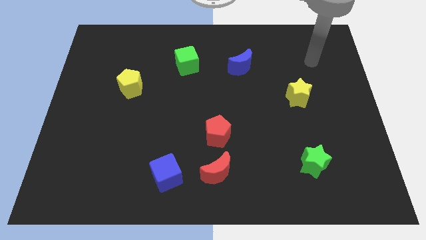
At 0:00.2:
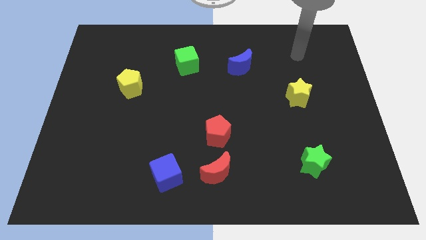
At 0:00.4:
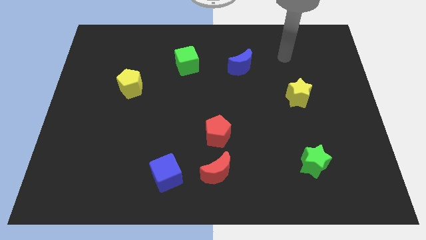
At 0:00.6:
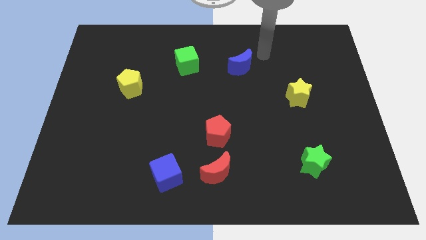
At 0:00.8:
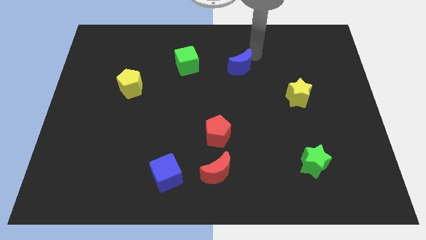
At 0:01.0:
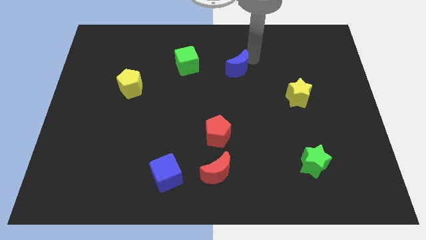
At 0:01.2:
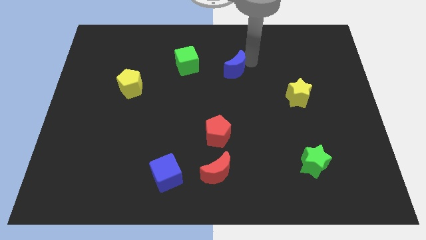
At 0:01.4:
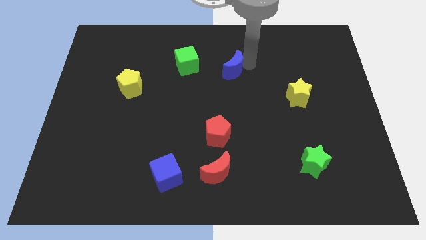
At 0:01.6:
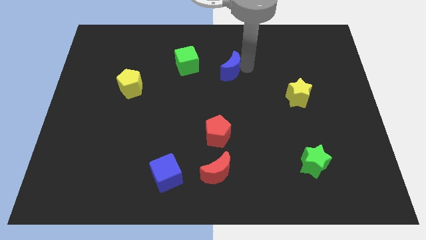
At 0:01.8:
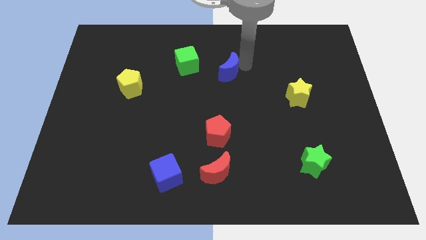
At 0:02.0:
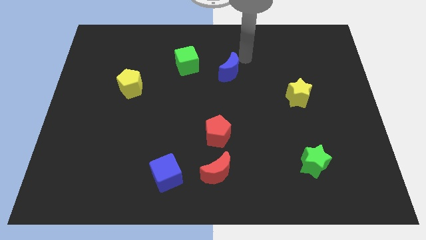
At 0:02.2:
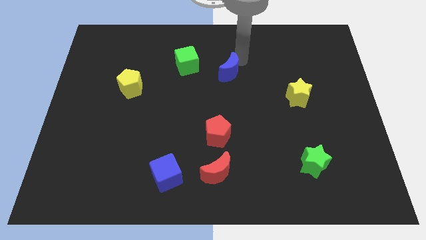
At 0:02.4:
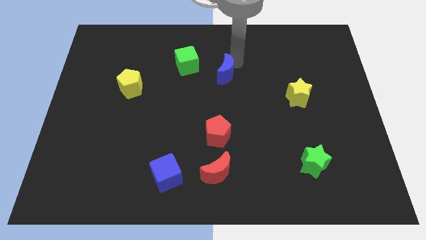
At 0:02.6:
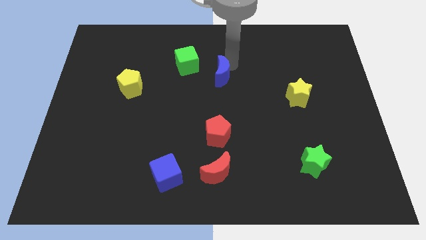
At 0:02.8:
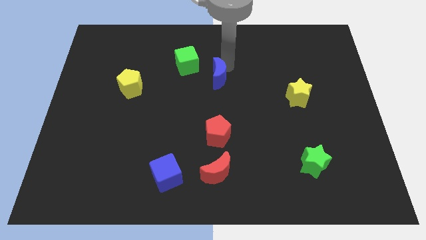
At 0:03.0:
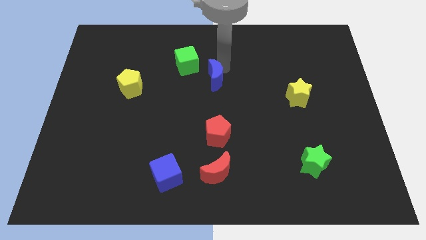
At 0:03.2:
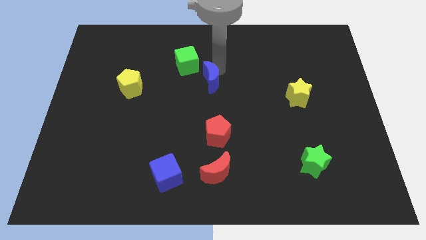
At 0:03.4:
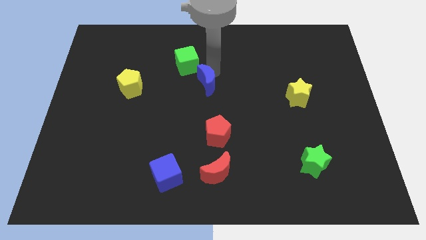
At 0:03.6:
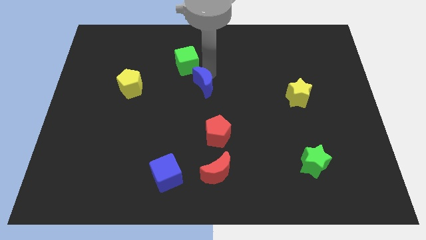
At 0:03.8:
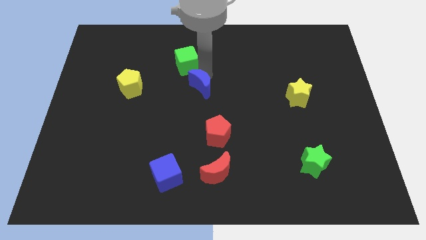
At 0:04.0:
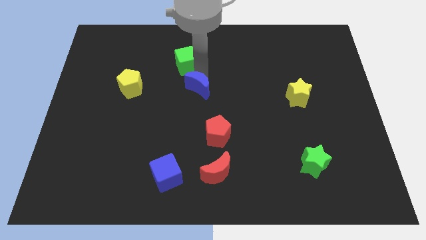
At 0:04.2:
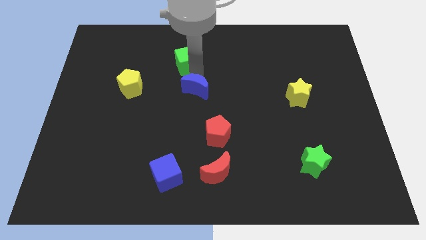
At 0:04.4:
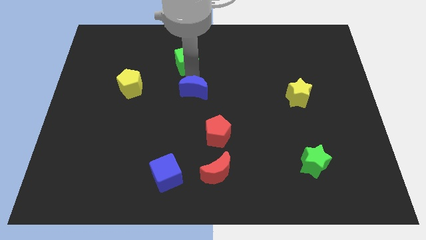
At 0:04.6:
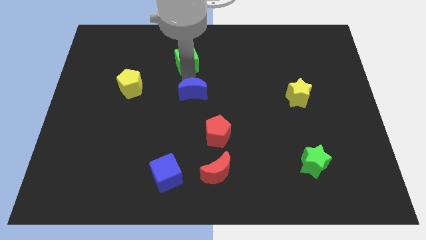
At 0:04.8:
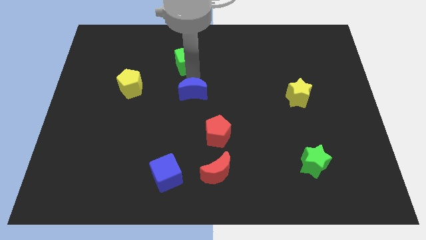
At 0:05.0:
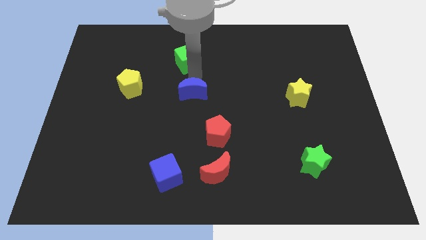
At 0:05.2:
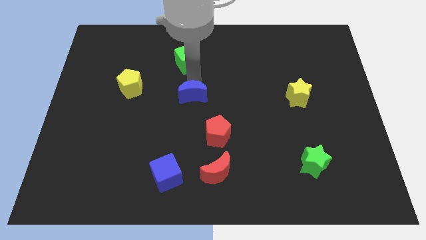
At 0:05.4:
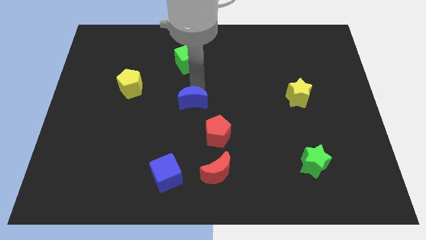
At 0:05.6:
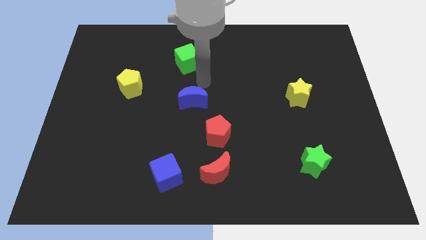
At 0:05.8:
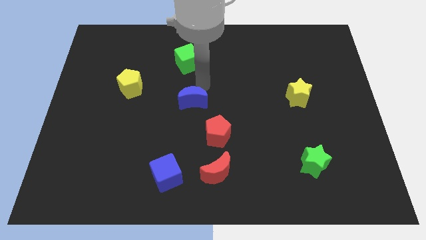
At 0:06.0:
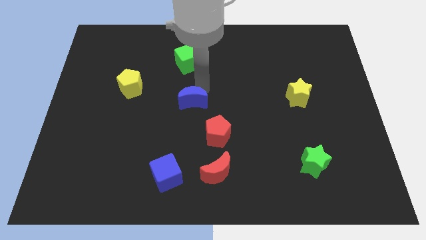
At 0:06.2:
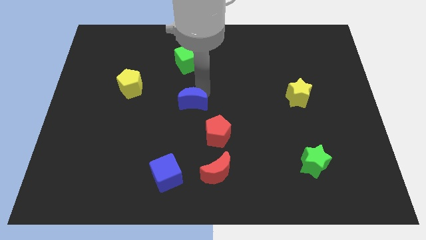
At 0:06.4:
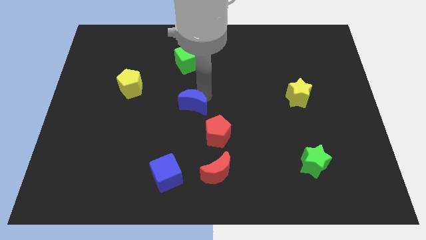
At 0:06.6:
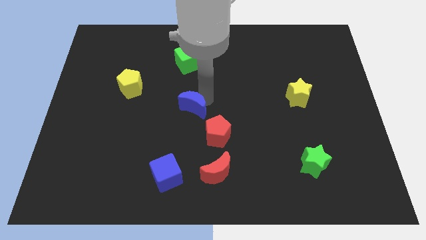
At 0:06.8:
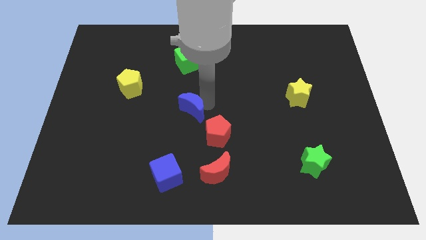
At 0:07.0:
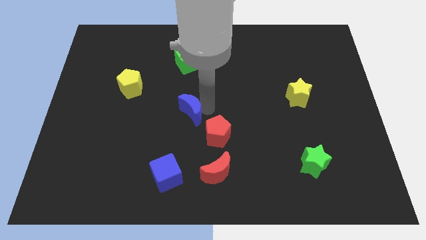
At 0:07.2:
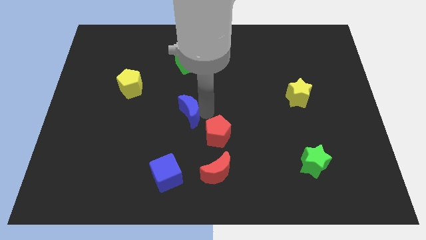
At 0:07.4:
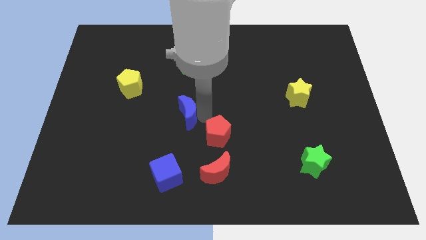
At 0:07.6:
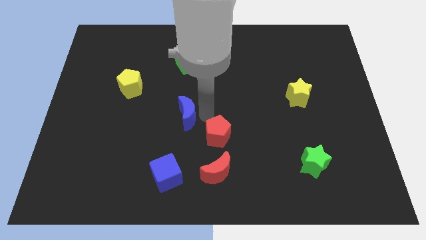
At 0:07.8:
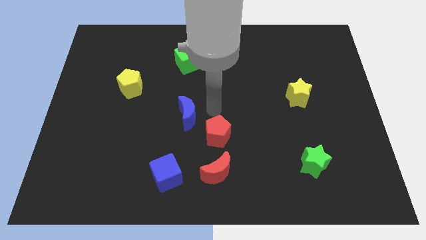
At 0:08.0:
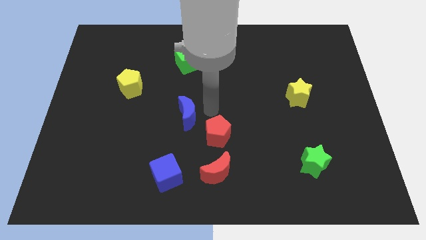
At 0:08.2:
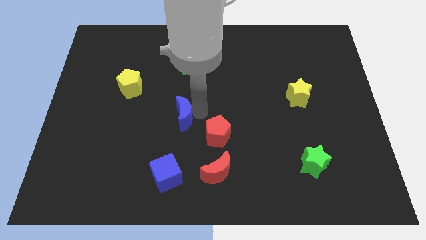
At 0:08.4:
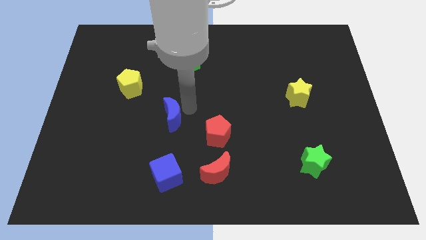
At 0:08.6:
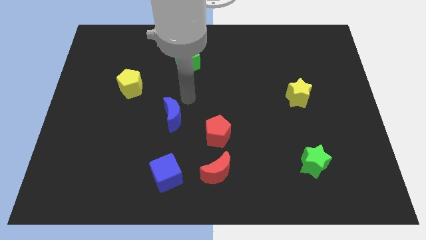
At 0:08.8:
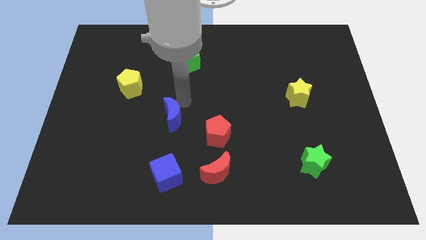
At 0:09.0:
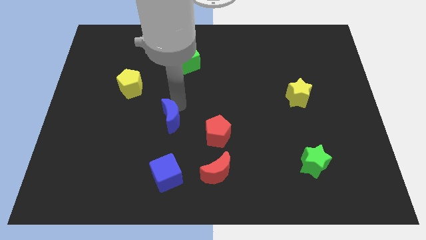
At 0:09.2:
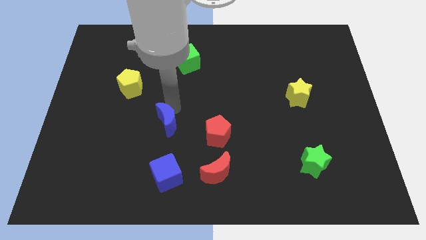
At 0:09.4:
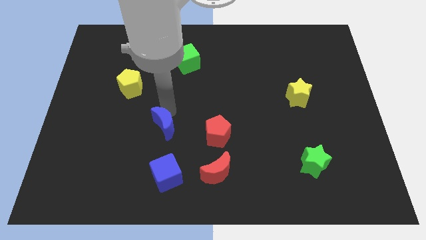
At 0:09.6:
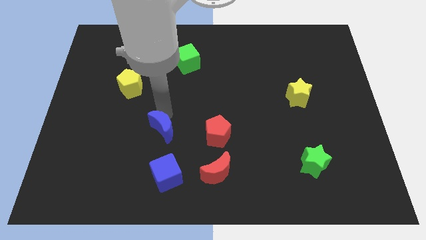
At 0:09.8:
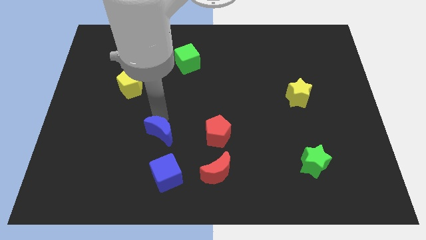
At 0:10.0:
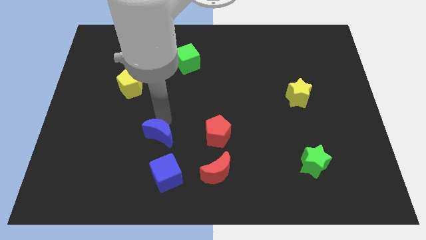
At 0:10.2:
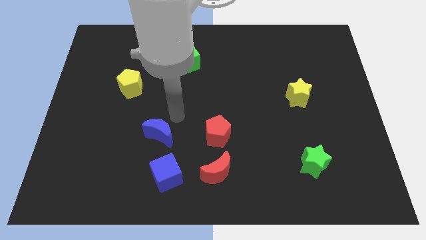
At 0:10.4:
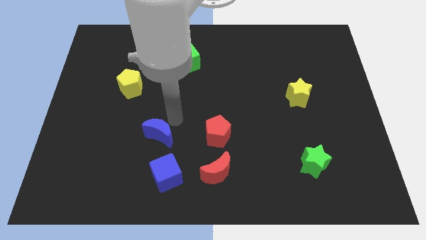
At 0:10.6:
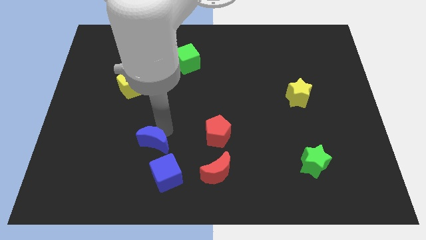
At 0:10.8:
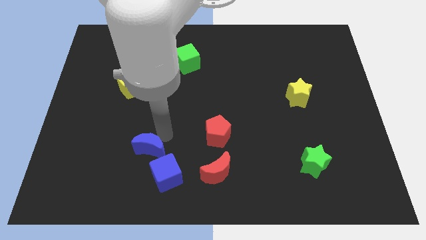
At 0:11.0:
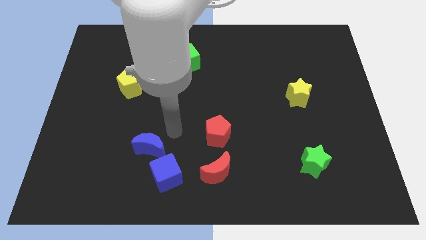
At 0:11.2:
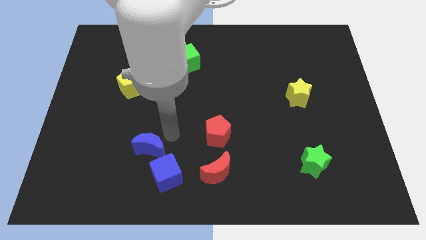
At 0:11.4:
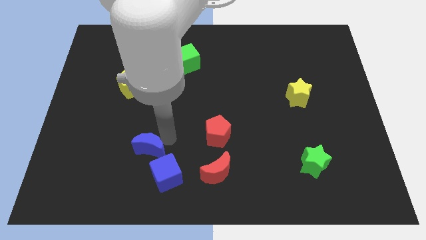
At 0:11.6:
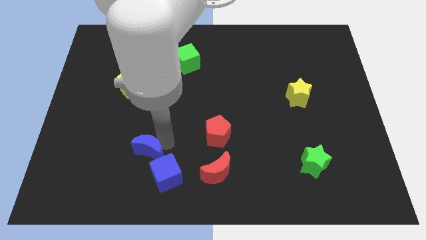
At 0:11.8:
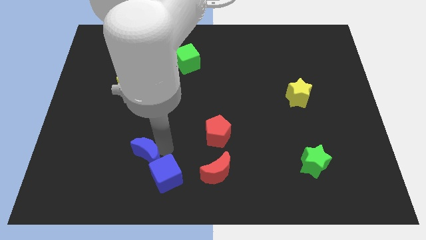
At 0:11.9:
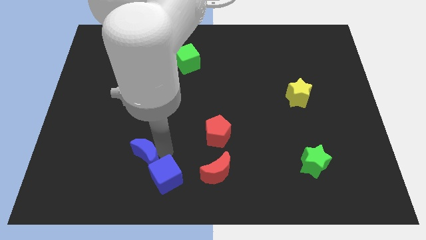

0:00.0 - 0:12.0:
move the blue moon left of the blue cube

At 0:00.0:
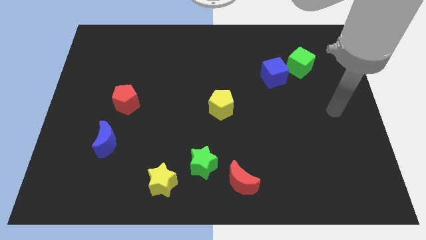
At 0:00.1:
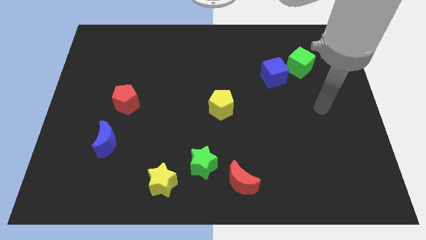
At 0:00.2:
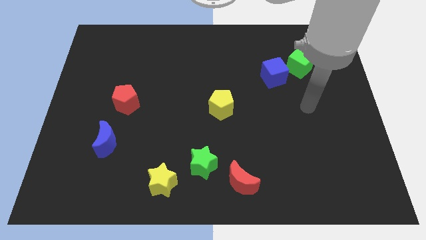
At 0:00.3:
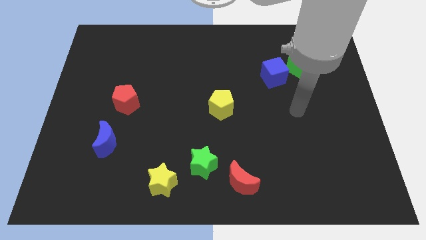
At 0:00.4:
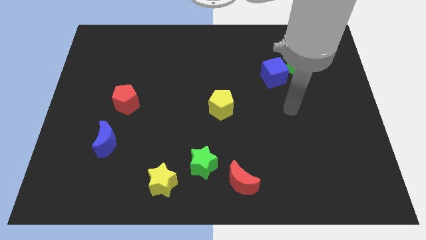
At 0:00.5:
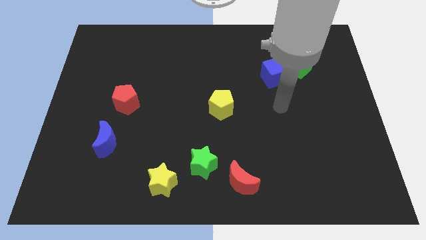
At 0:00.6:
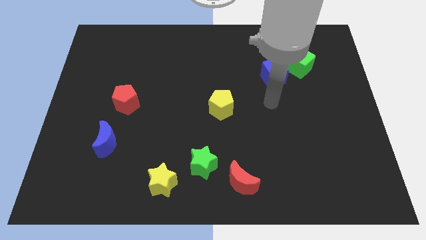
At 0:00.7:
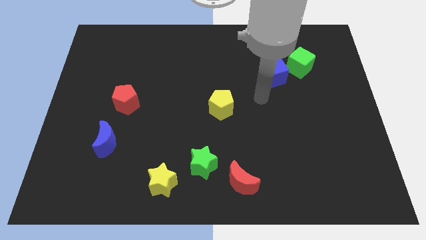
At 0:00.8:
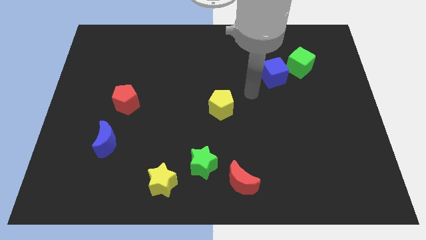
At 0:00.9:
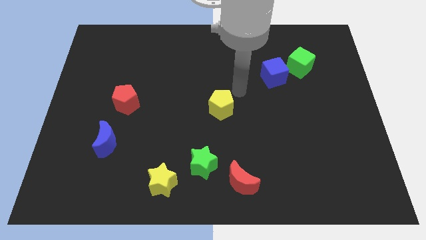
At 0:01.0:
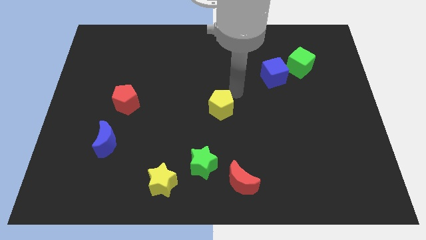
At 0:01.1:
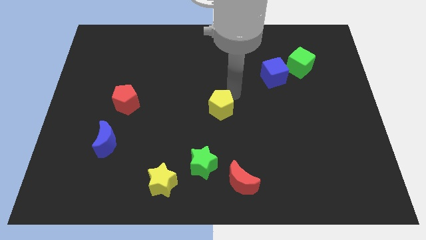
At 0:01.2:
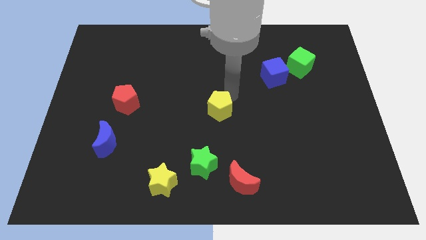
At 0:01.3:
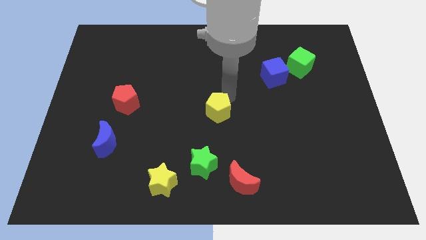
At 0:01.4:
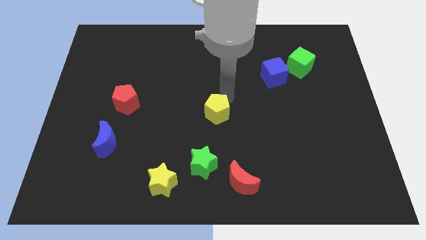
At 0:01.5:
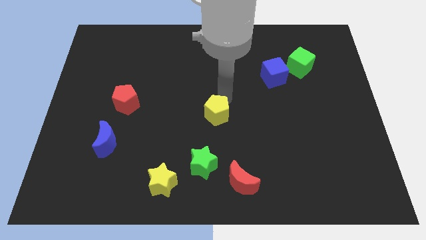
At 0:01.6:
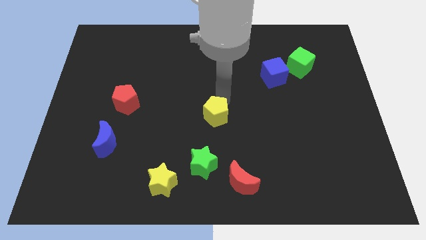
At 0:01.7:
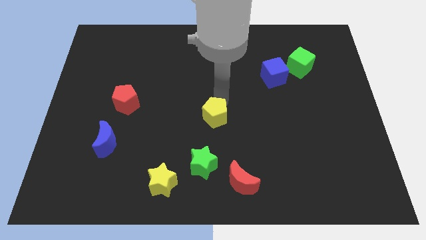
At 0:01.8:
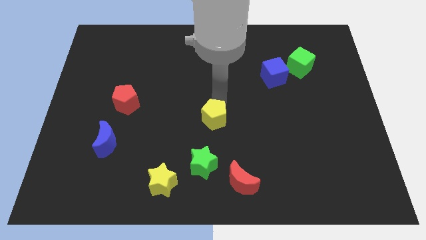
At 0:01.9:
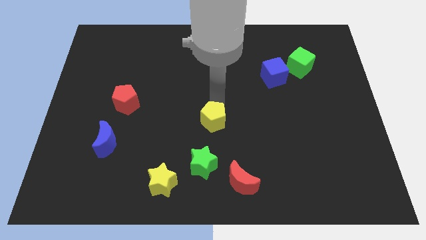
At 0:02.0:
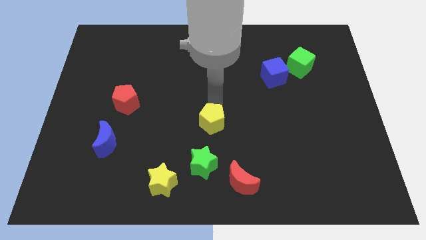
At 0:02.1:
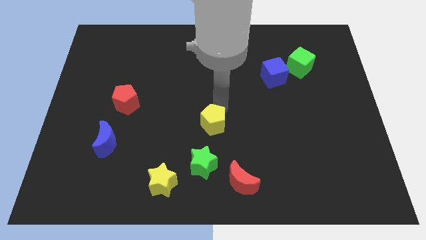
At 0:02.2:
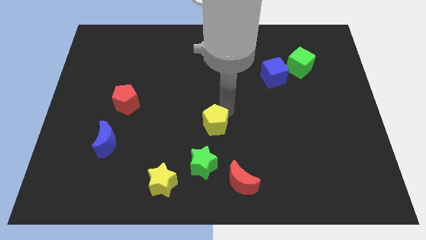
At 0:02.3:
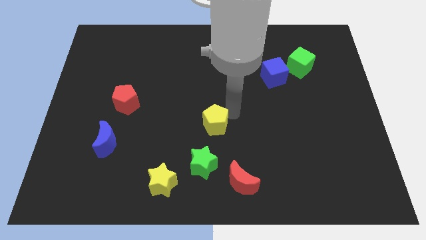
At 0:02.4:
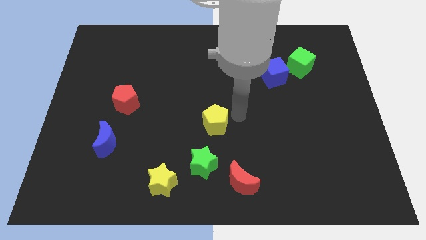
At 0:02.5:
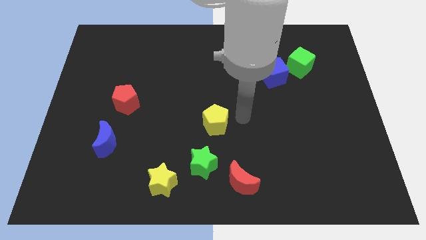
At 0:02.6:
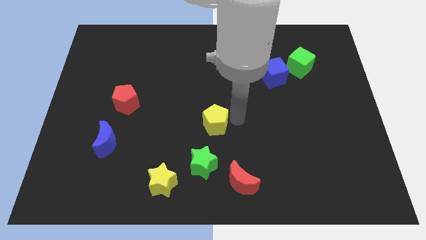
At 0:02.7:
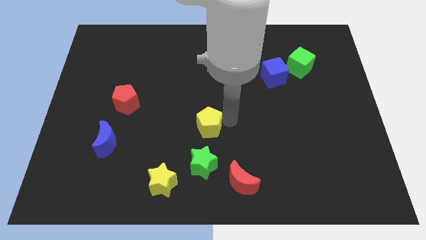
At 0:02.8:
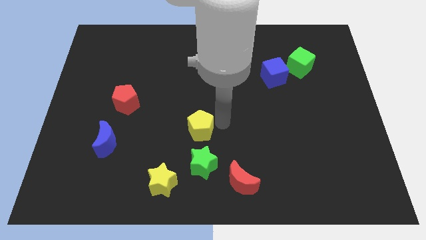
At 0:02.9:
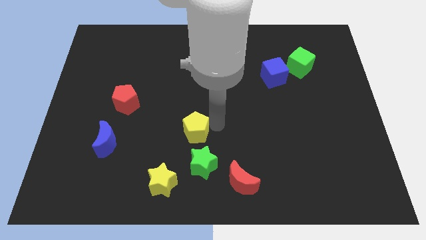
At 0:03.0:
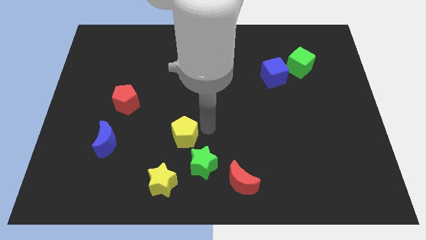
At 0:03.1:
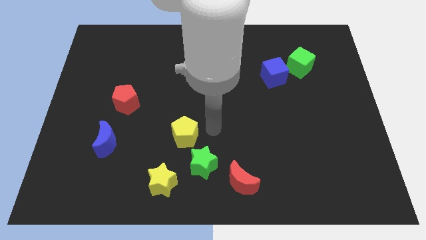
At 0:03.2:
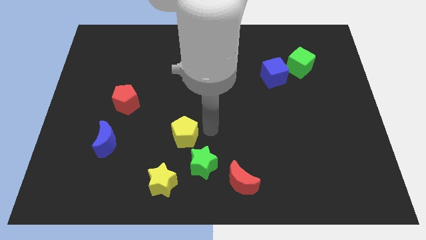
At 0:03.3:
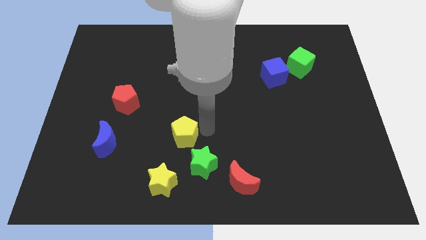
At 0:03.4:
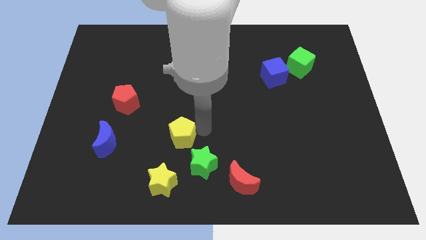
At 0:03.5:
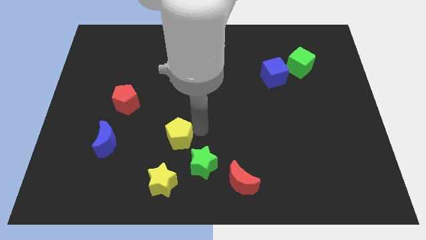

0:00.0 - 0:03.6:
move the yellow pentagon right of the blue moon
